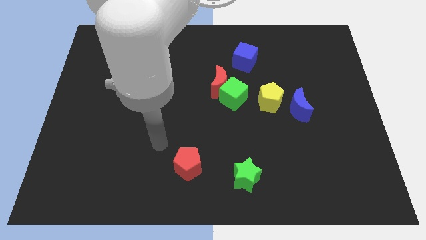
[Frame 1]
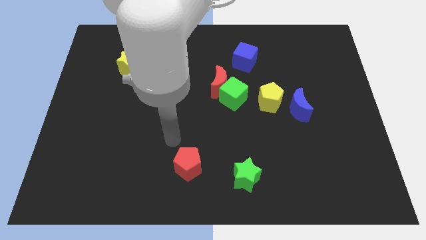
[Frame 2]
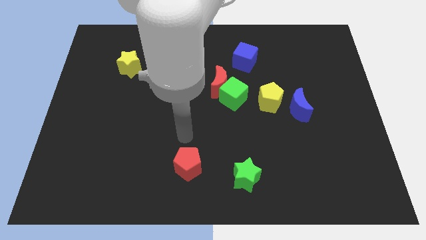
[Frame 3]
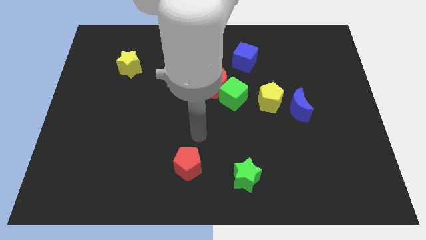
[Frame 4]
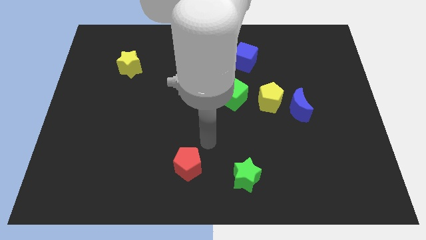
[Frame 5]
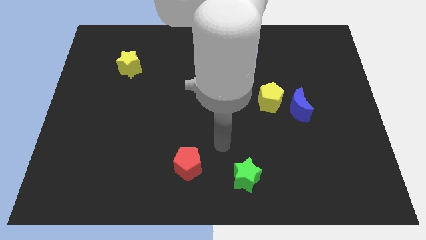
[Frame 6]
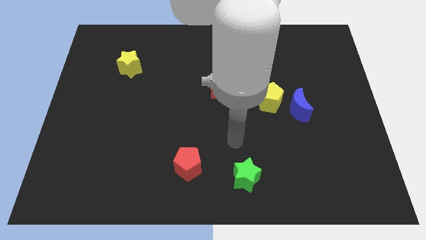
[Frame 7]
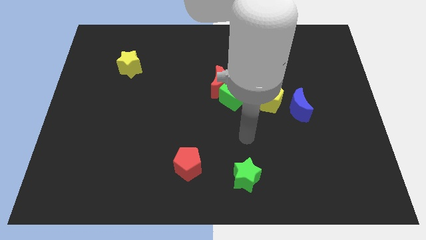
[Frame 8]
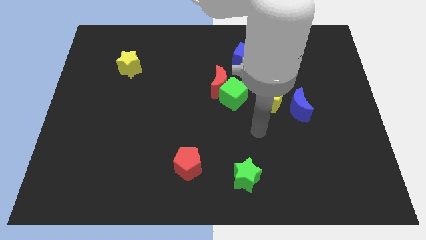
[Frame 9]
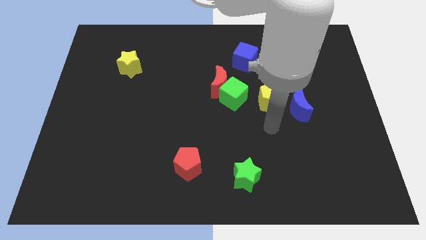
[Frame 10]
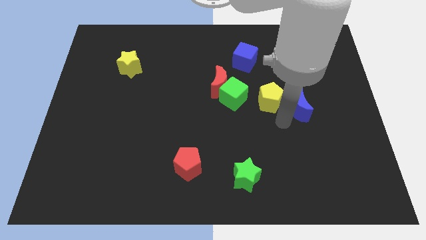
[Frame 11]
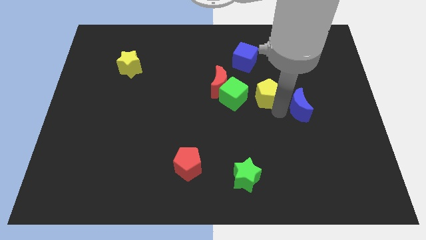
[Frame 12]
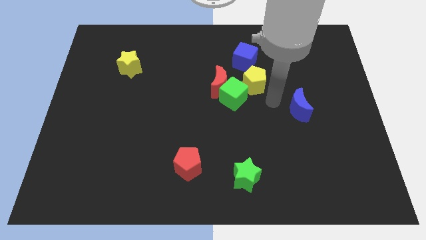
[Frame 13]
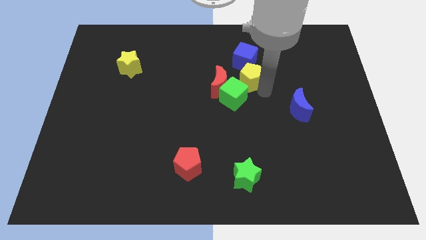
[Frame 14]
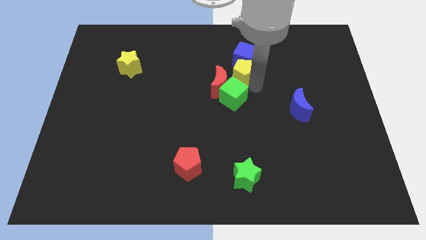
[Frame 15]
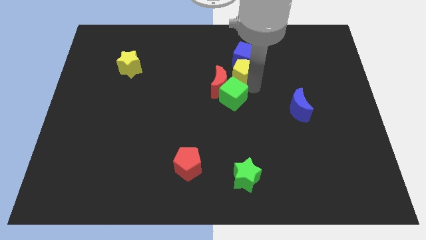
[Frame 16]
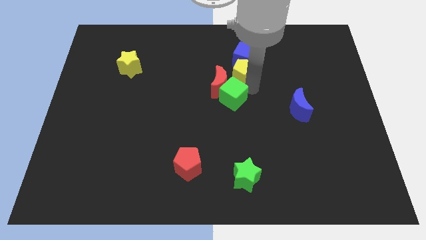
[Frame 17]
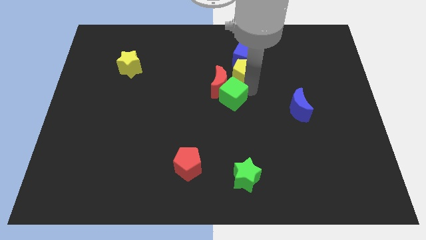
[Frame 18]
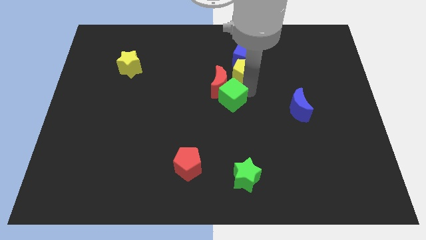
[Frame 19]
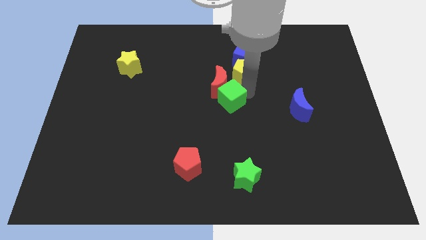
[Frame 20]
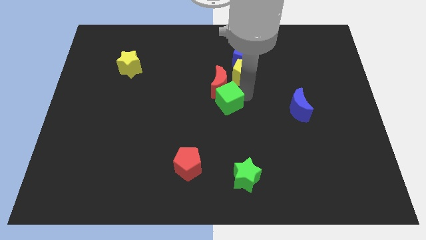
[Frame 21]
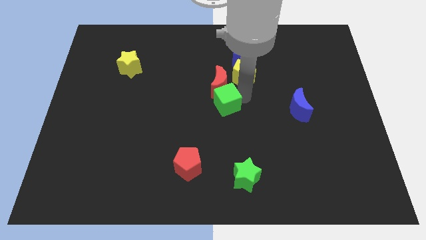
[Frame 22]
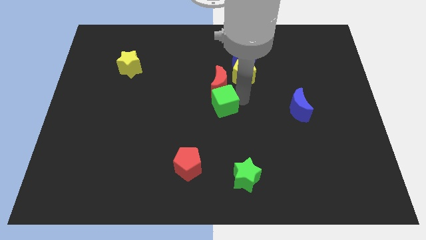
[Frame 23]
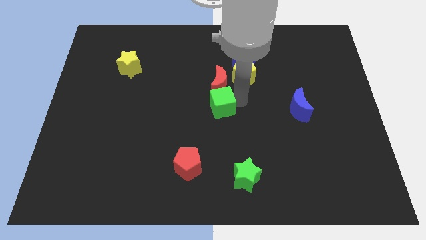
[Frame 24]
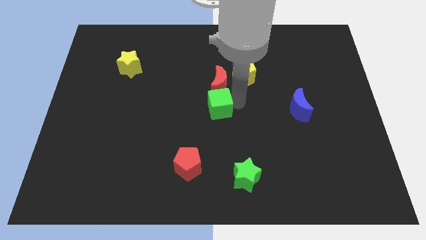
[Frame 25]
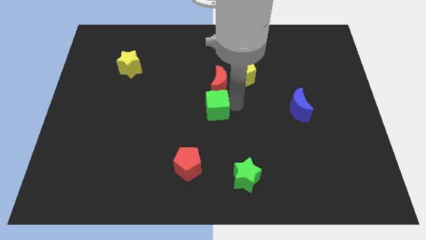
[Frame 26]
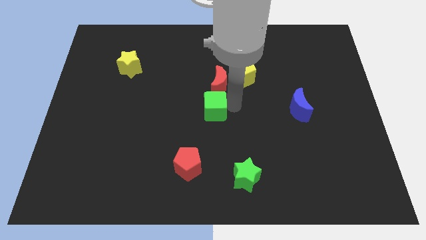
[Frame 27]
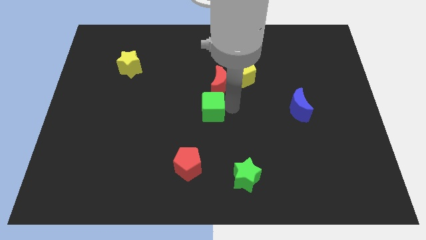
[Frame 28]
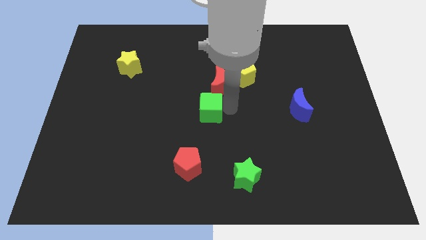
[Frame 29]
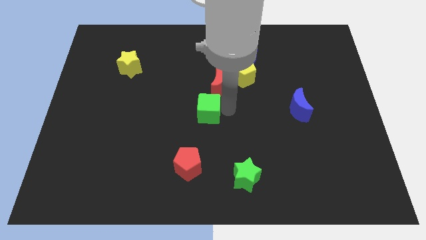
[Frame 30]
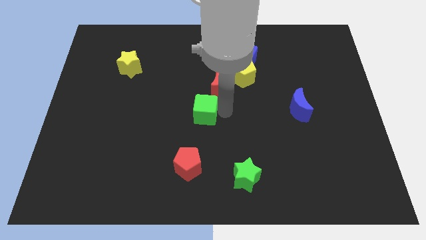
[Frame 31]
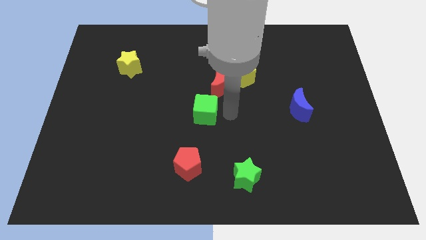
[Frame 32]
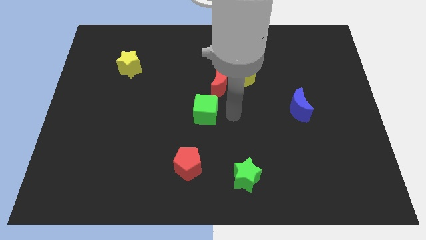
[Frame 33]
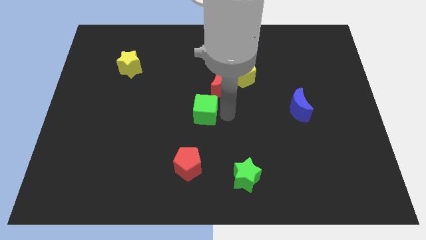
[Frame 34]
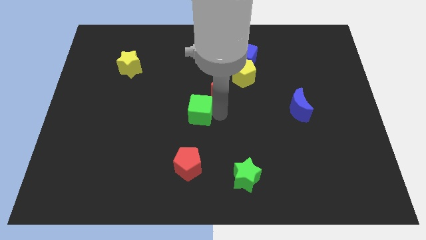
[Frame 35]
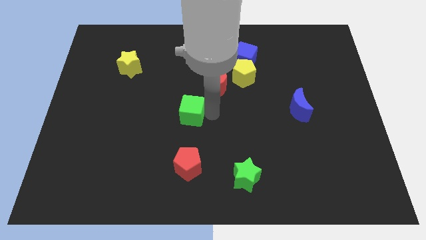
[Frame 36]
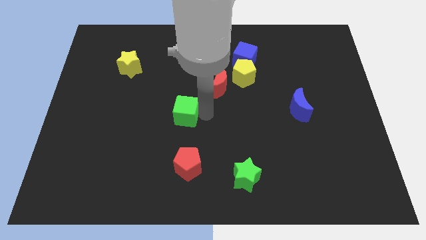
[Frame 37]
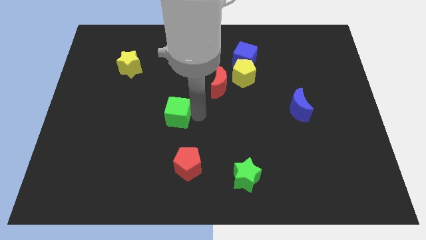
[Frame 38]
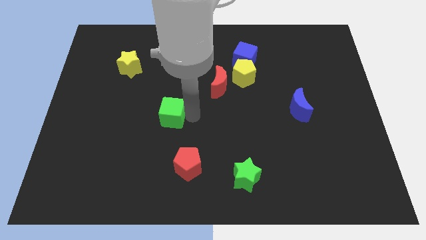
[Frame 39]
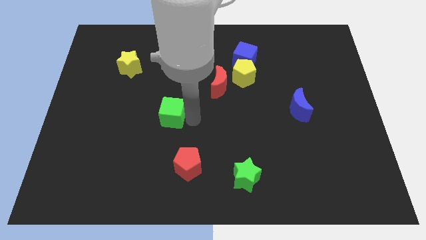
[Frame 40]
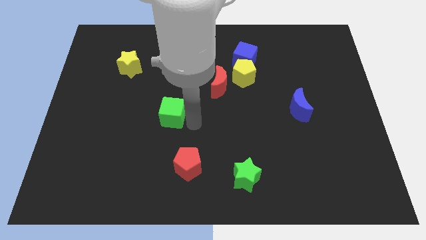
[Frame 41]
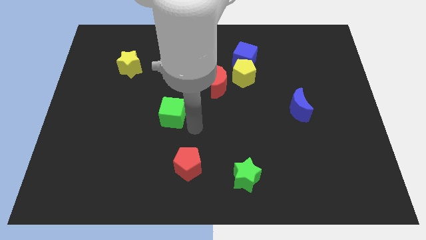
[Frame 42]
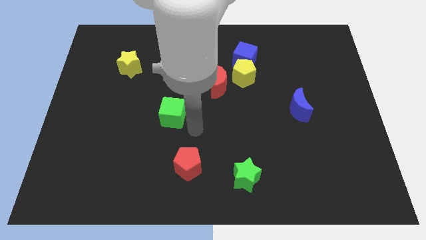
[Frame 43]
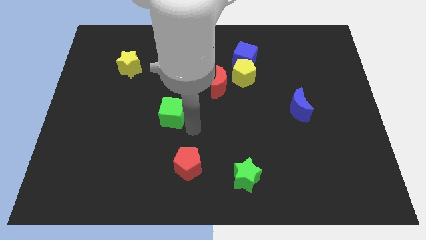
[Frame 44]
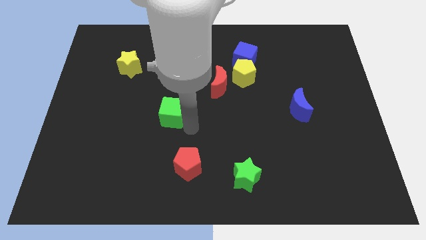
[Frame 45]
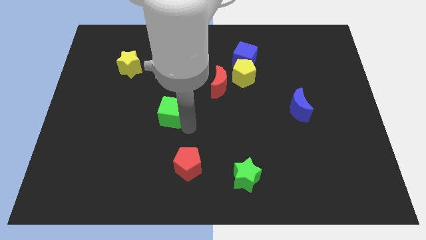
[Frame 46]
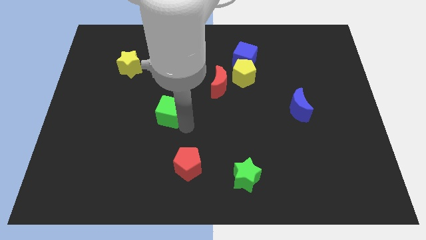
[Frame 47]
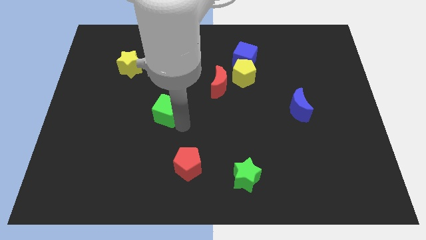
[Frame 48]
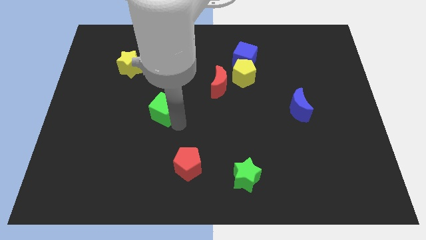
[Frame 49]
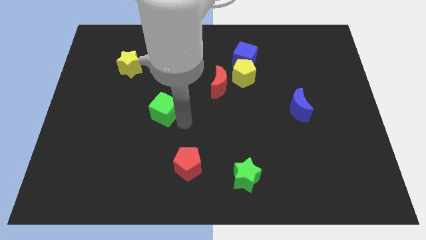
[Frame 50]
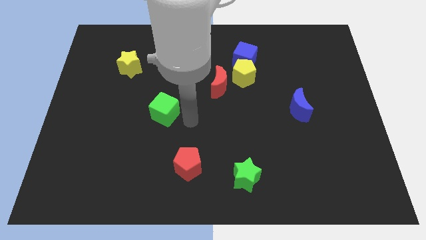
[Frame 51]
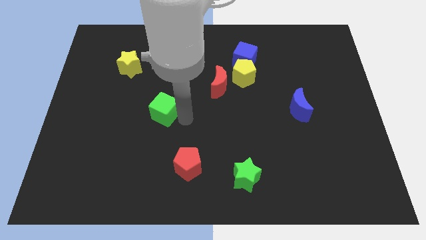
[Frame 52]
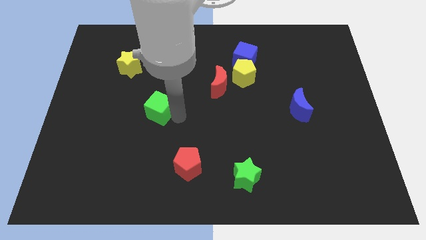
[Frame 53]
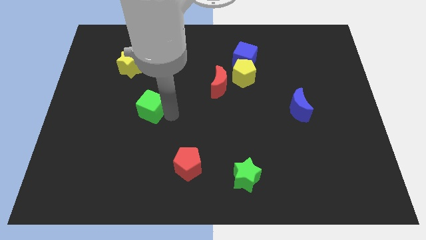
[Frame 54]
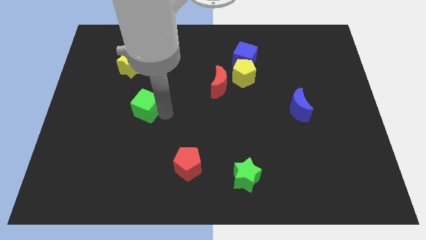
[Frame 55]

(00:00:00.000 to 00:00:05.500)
move the green cube to the left

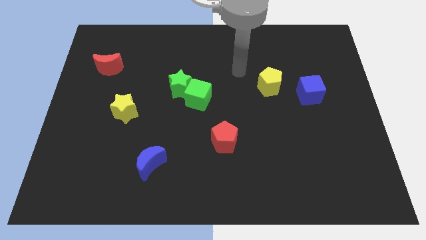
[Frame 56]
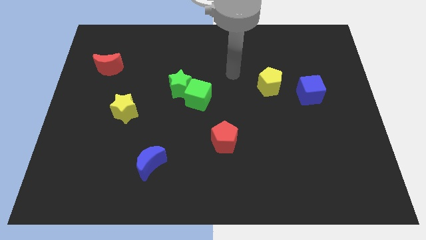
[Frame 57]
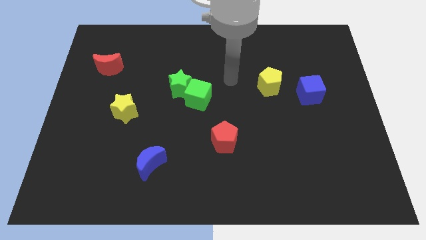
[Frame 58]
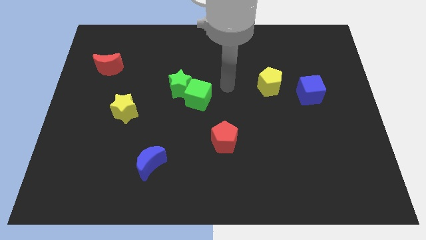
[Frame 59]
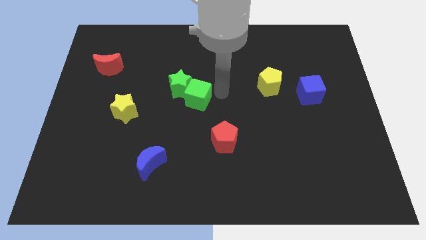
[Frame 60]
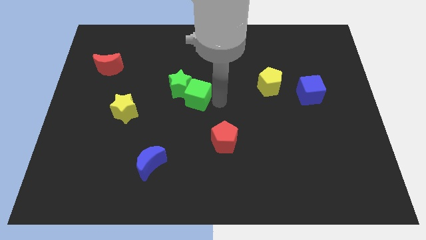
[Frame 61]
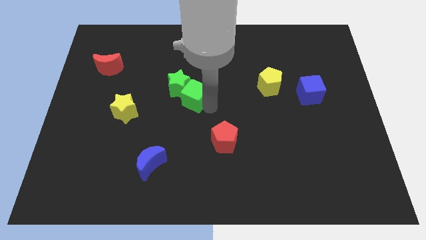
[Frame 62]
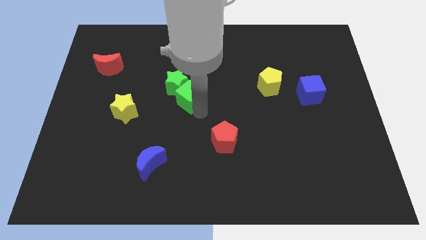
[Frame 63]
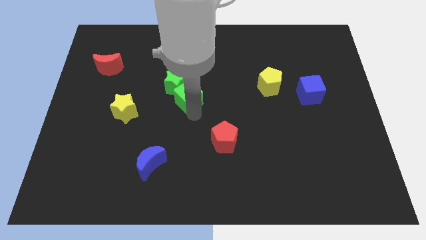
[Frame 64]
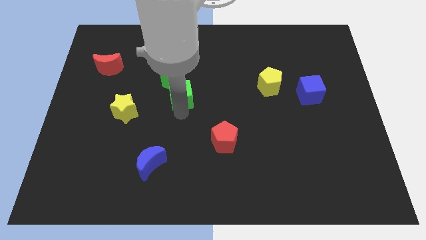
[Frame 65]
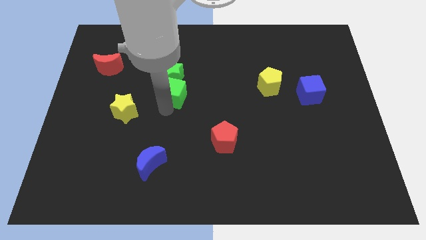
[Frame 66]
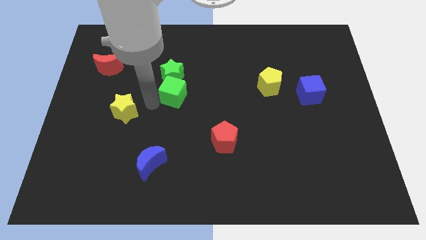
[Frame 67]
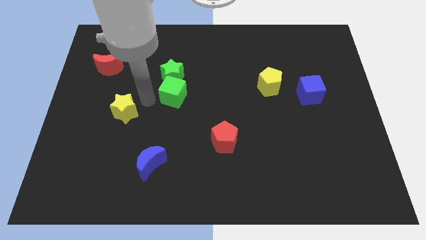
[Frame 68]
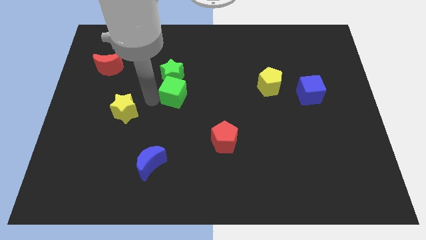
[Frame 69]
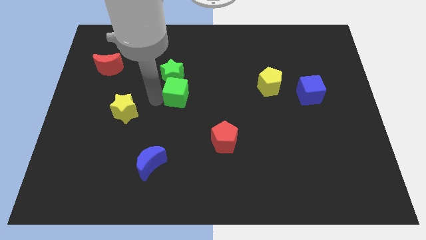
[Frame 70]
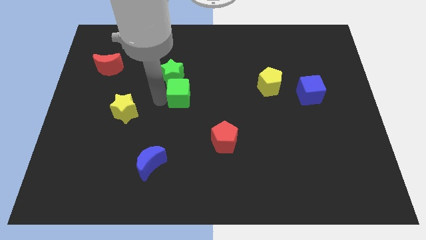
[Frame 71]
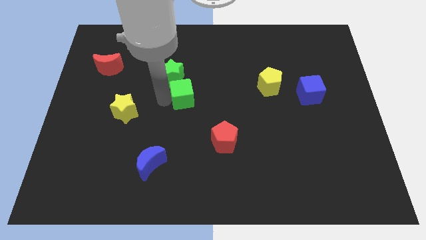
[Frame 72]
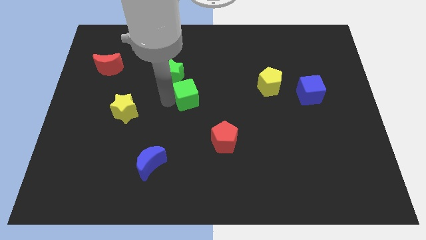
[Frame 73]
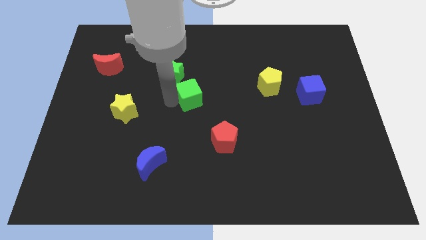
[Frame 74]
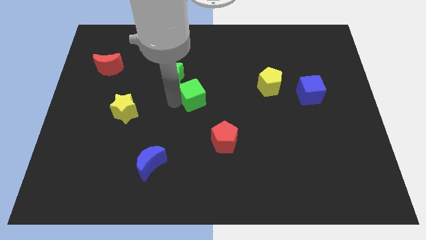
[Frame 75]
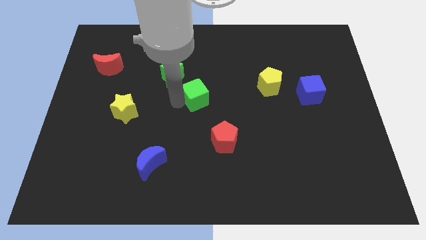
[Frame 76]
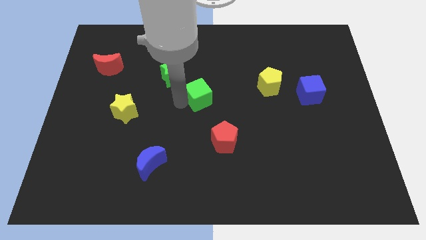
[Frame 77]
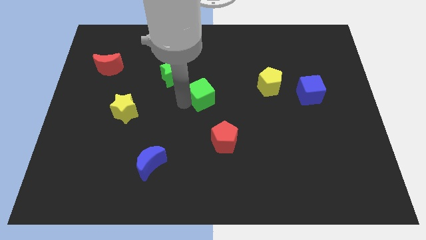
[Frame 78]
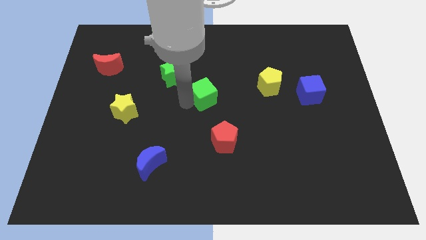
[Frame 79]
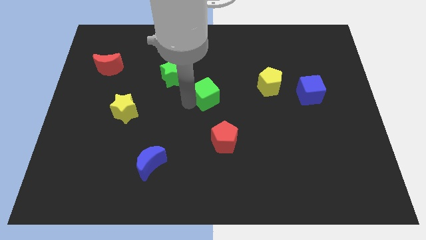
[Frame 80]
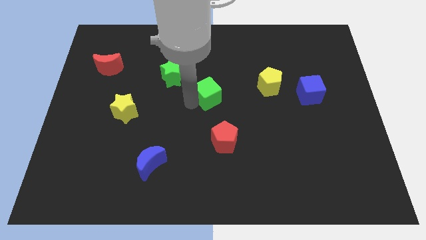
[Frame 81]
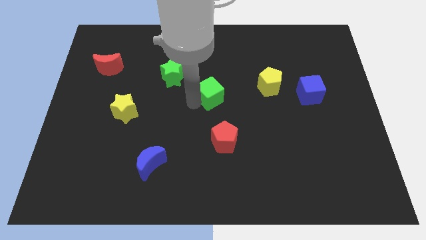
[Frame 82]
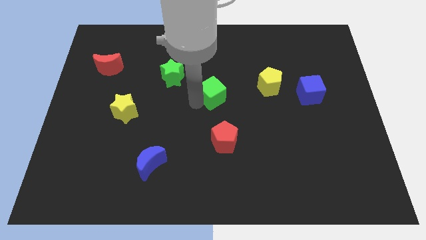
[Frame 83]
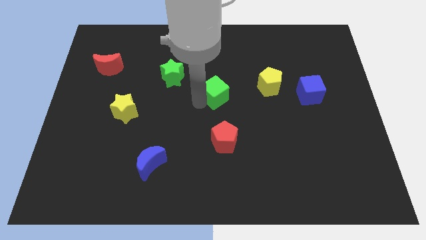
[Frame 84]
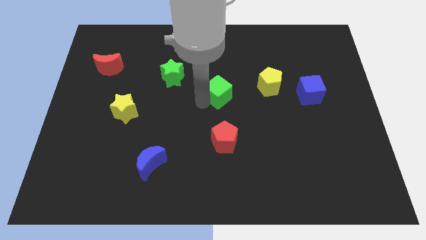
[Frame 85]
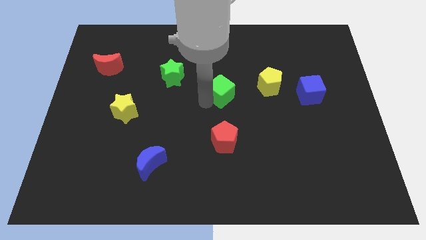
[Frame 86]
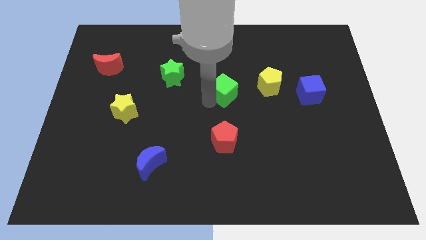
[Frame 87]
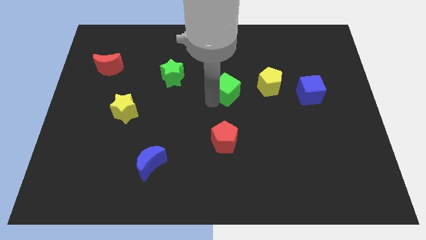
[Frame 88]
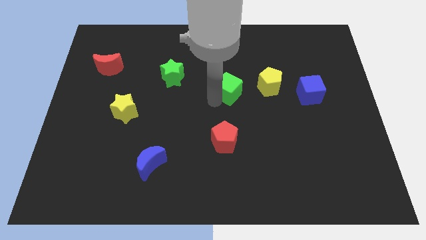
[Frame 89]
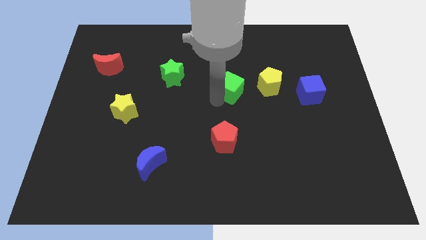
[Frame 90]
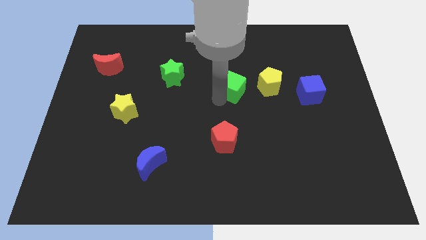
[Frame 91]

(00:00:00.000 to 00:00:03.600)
move the green cube a little bit up and to the right diagonally
